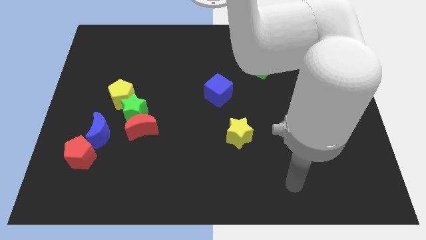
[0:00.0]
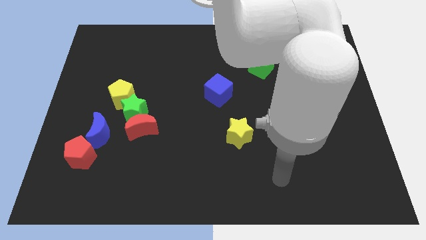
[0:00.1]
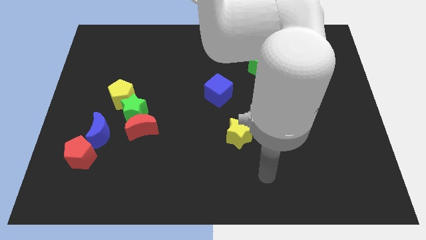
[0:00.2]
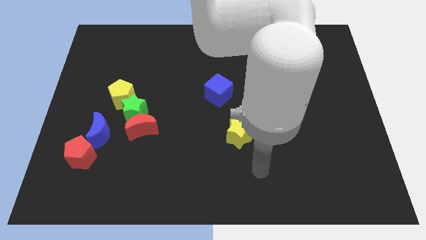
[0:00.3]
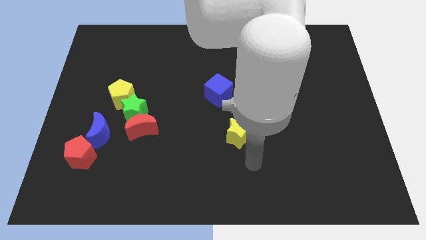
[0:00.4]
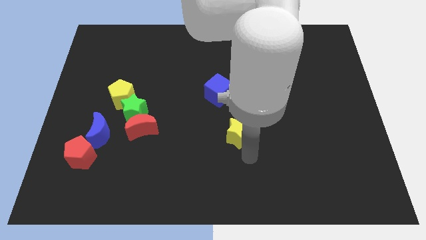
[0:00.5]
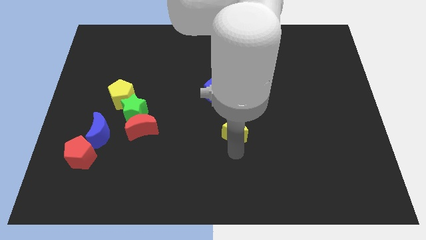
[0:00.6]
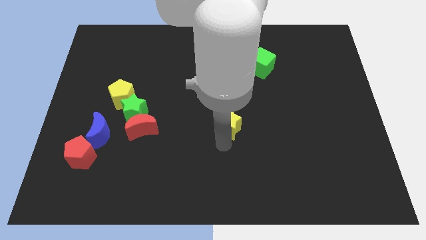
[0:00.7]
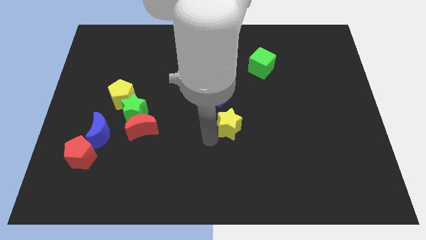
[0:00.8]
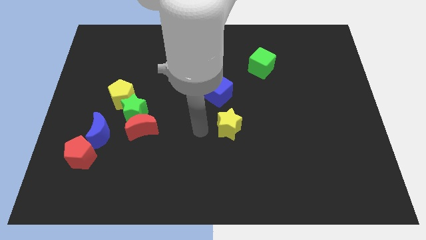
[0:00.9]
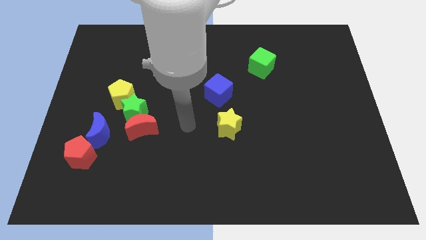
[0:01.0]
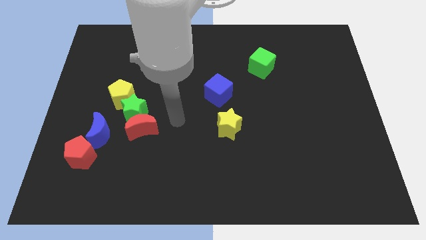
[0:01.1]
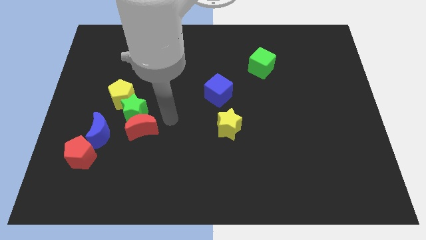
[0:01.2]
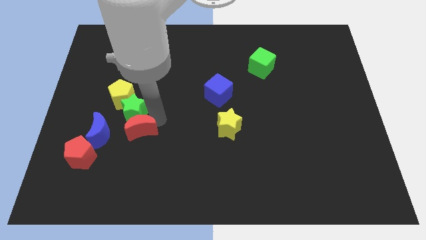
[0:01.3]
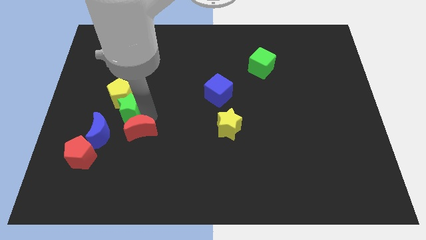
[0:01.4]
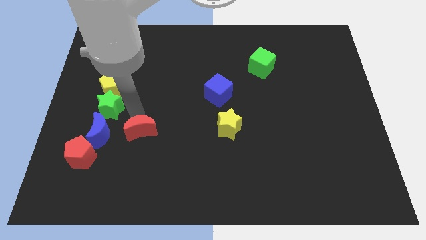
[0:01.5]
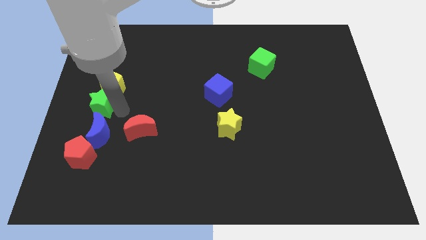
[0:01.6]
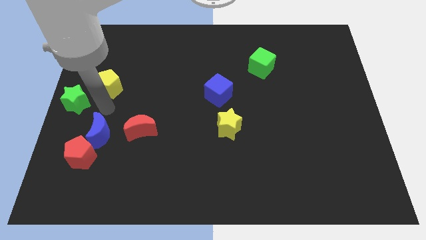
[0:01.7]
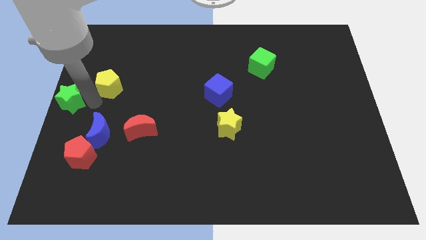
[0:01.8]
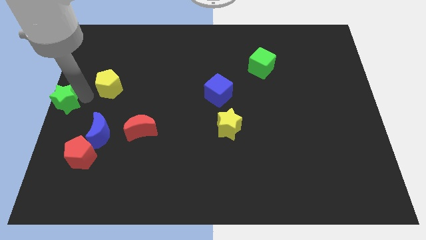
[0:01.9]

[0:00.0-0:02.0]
move the yellow pentagon away from the green star

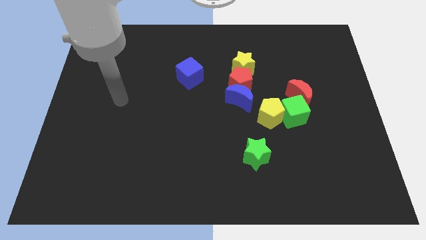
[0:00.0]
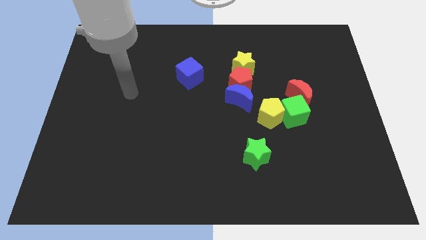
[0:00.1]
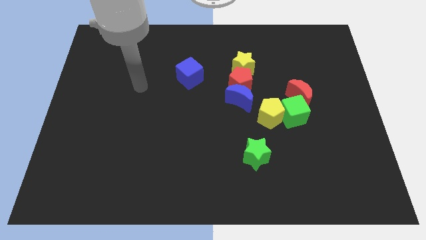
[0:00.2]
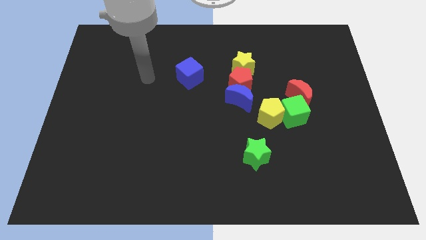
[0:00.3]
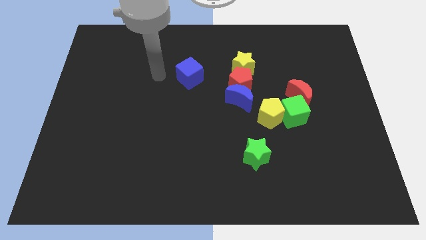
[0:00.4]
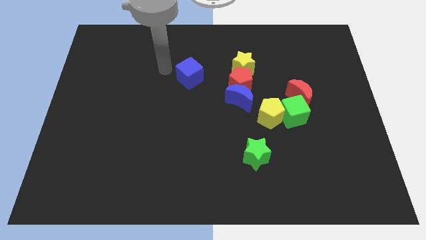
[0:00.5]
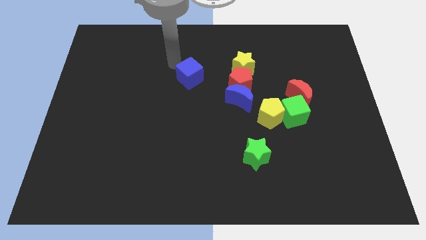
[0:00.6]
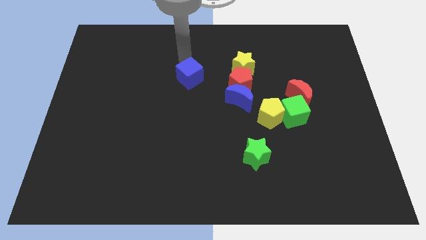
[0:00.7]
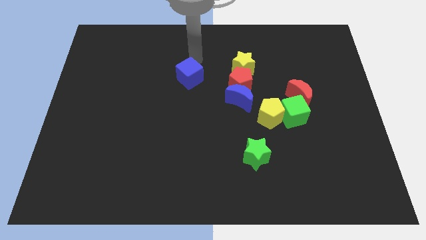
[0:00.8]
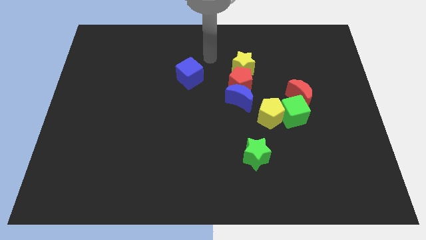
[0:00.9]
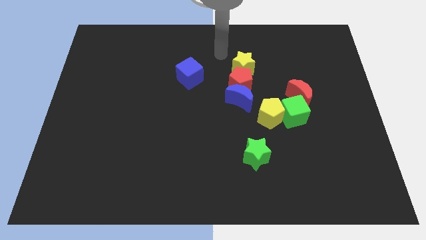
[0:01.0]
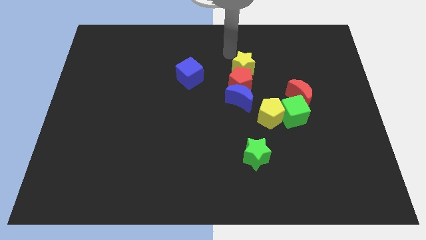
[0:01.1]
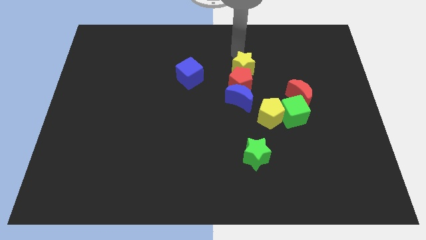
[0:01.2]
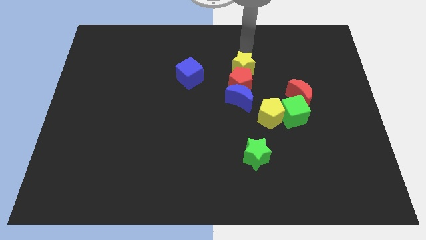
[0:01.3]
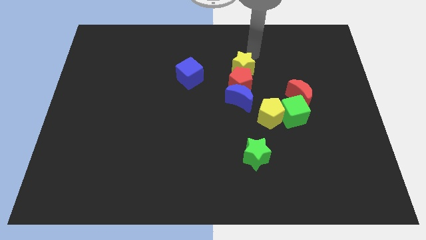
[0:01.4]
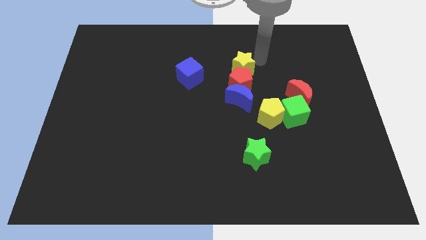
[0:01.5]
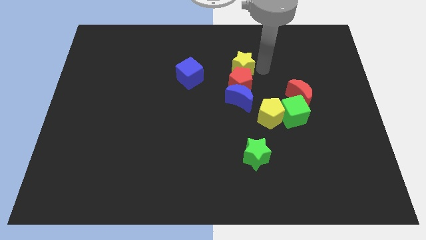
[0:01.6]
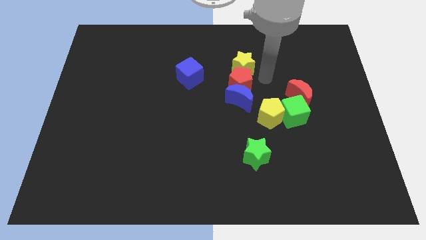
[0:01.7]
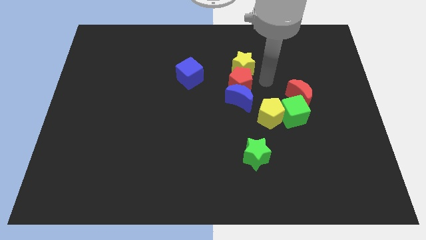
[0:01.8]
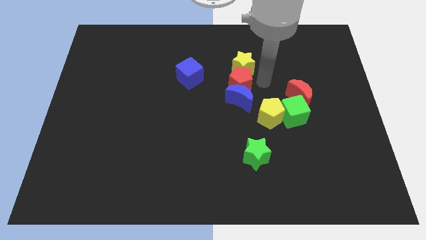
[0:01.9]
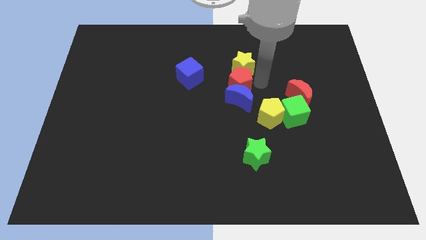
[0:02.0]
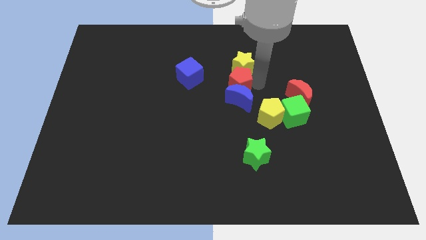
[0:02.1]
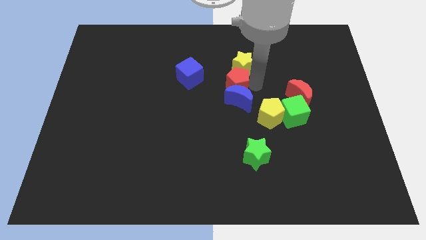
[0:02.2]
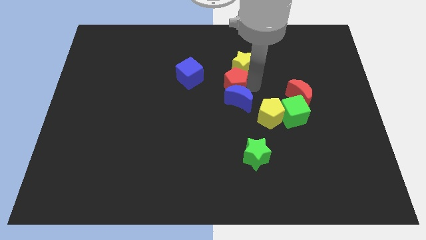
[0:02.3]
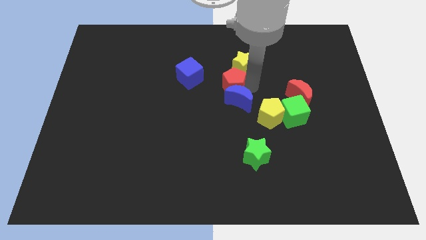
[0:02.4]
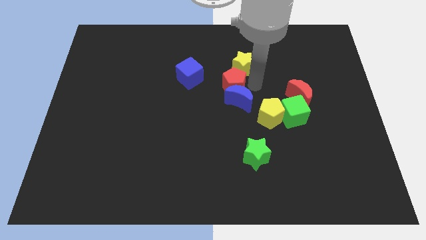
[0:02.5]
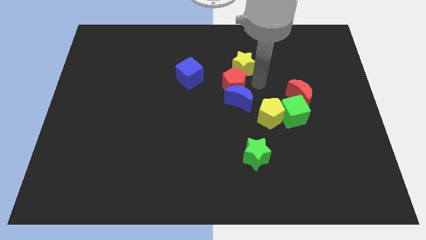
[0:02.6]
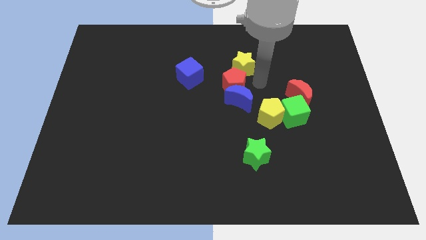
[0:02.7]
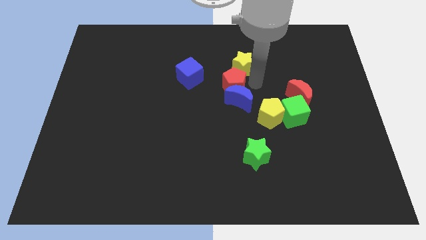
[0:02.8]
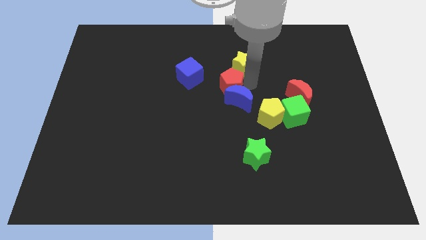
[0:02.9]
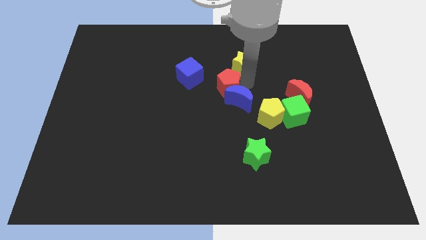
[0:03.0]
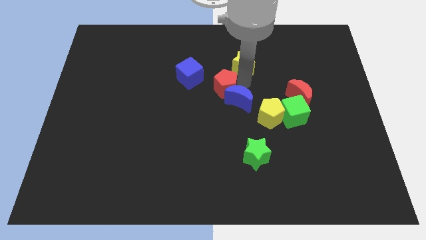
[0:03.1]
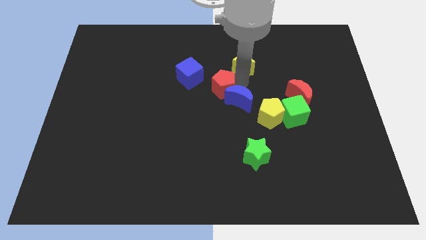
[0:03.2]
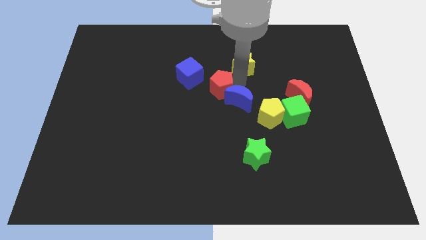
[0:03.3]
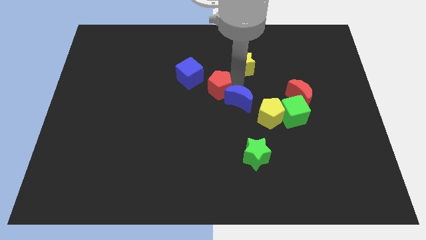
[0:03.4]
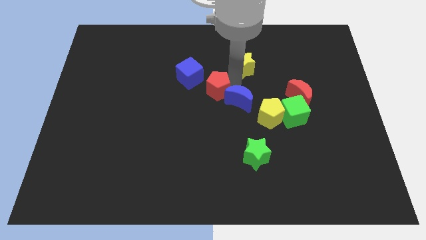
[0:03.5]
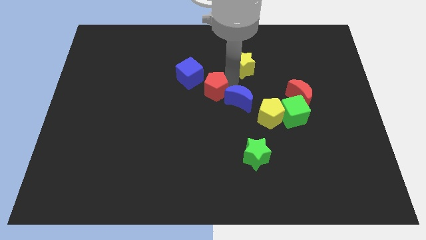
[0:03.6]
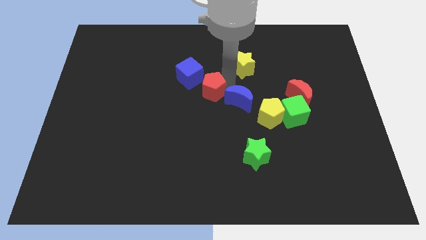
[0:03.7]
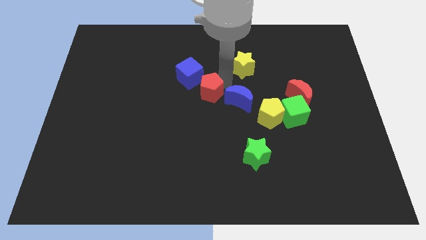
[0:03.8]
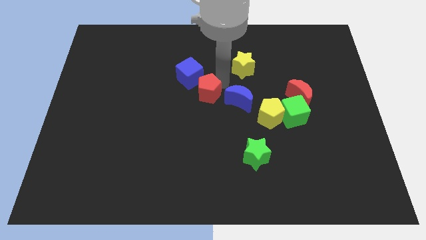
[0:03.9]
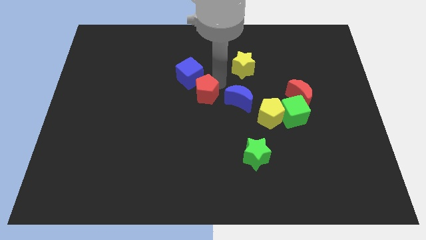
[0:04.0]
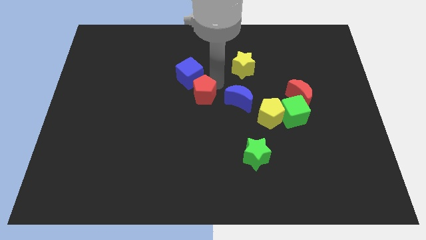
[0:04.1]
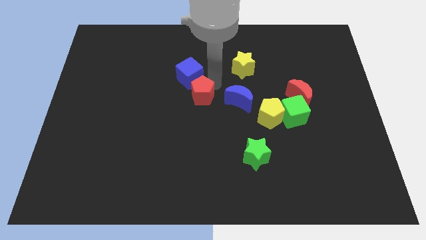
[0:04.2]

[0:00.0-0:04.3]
pull the red pentagon apart from the blue moon and yellow star

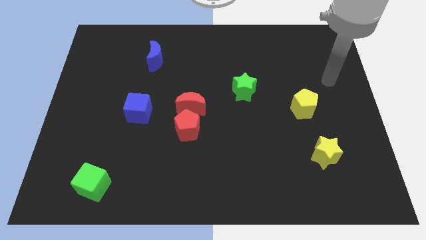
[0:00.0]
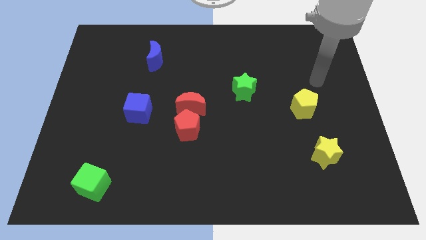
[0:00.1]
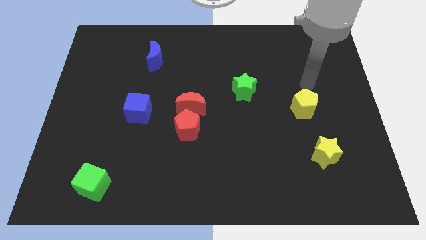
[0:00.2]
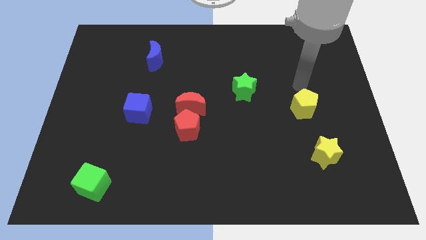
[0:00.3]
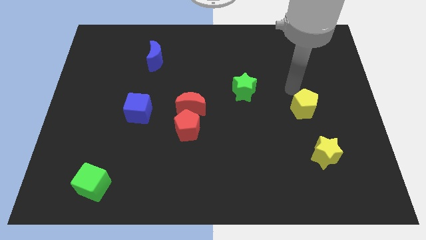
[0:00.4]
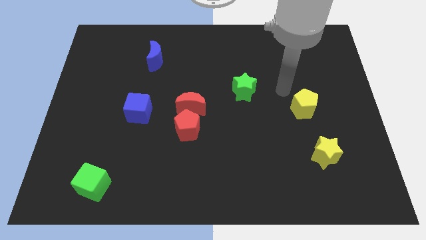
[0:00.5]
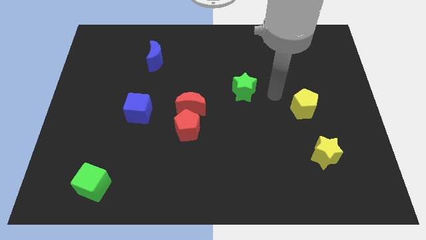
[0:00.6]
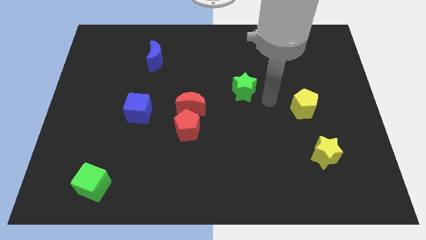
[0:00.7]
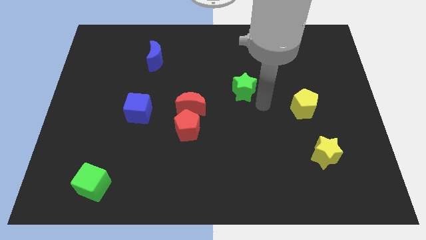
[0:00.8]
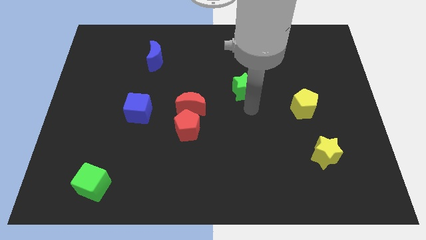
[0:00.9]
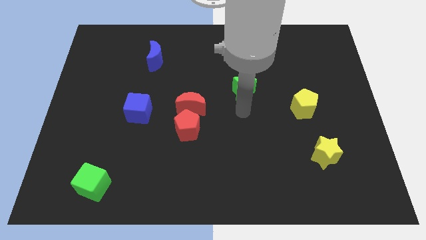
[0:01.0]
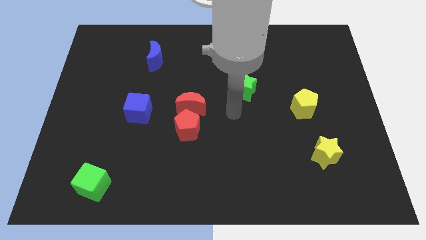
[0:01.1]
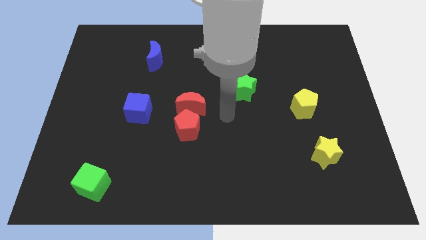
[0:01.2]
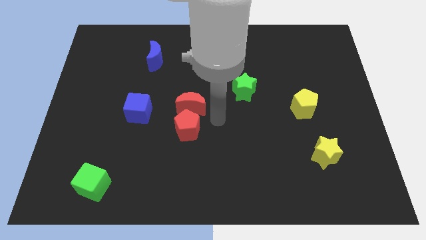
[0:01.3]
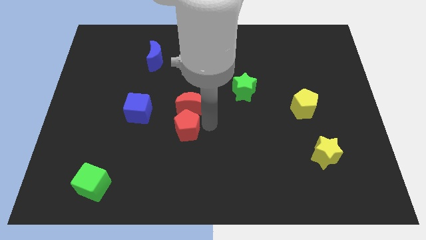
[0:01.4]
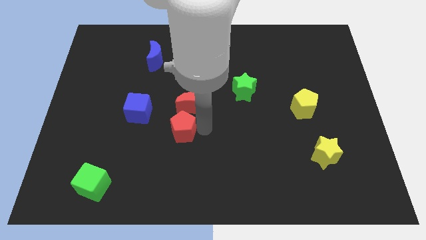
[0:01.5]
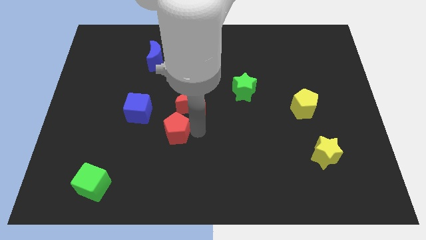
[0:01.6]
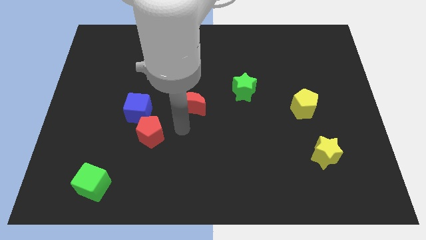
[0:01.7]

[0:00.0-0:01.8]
separate the red moon from the red pentagon

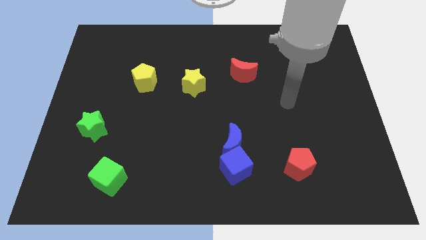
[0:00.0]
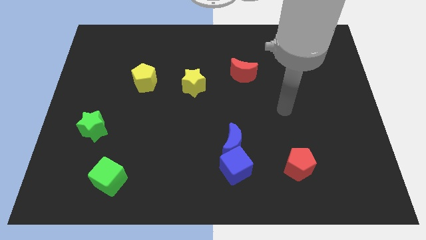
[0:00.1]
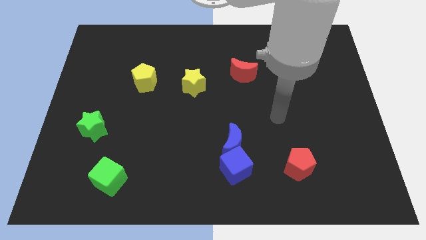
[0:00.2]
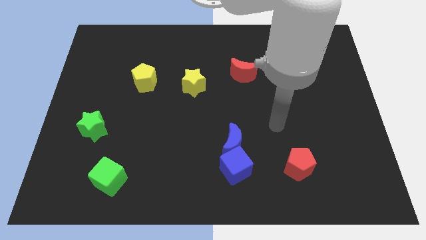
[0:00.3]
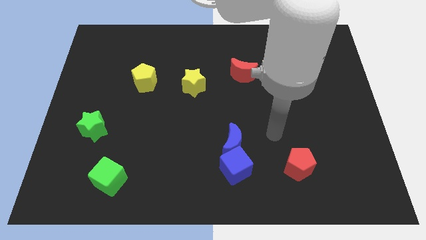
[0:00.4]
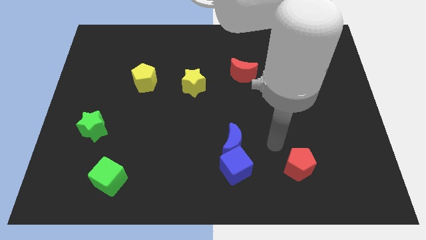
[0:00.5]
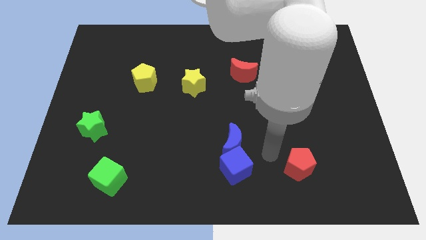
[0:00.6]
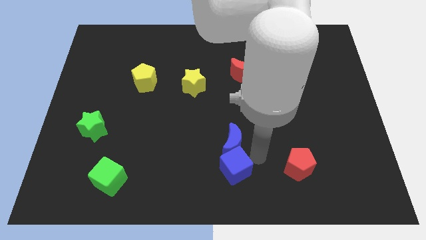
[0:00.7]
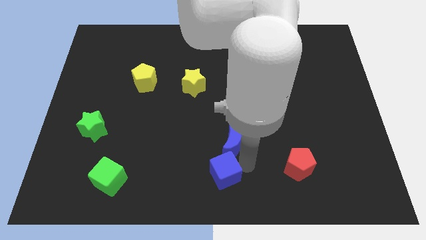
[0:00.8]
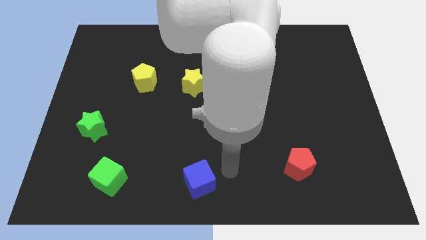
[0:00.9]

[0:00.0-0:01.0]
pull the blue moon apart from the blue cube

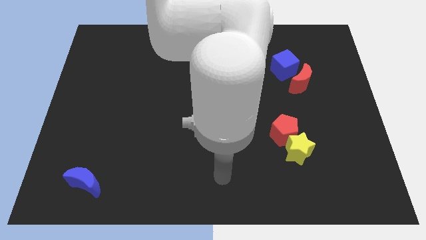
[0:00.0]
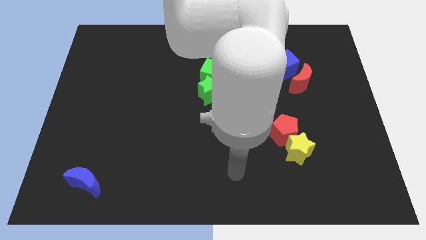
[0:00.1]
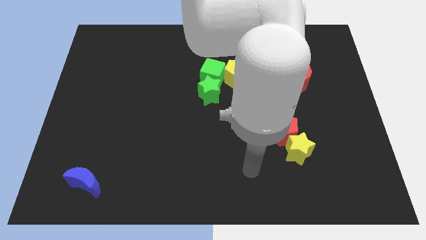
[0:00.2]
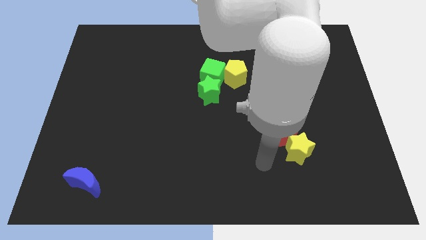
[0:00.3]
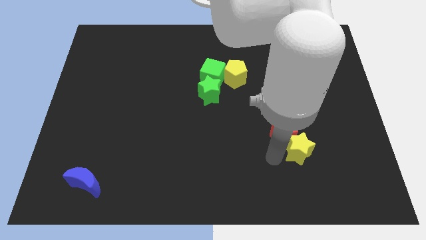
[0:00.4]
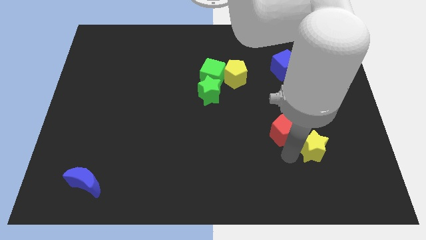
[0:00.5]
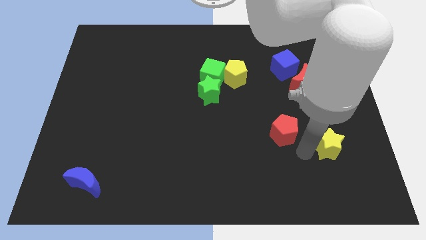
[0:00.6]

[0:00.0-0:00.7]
pull the red pentagon apart from the yellow star
